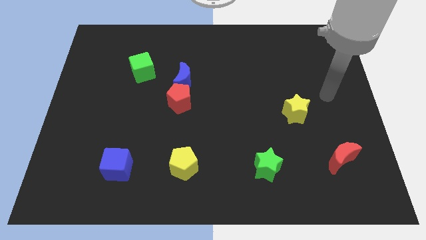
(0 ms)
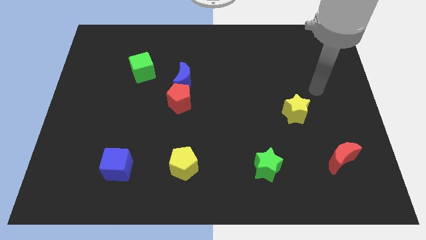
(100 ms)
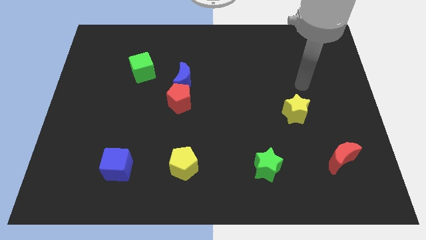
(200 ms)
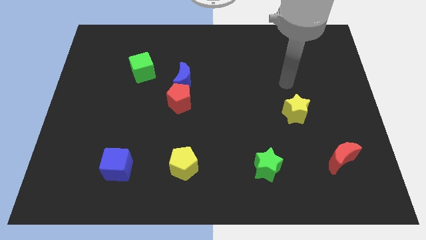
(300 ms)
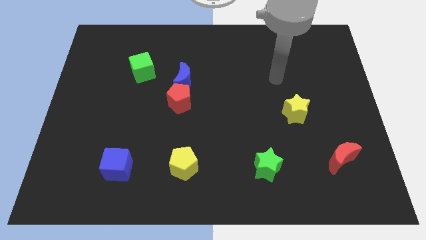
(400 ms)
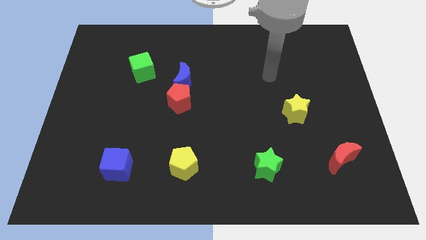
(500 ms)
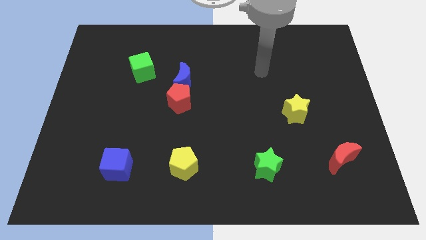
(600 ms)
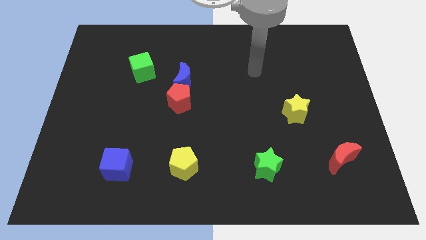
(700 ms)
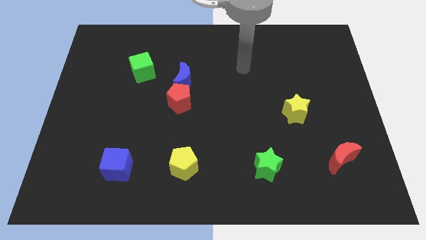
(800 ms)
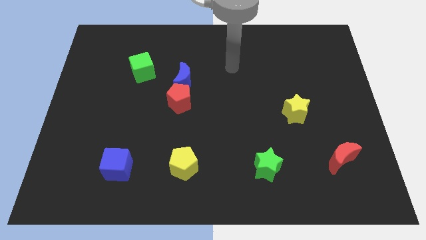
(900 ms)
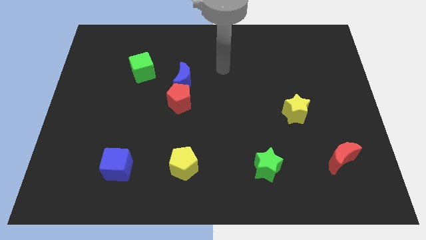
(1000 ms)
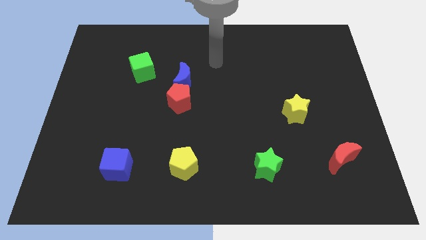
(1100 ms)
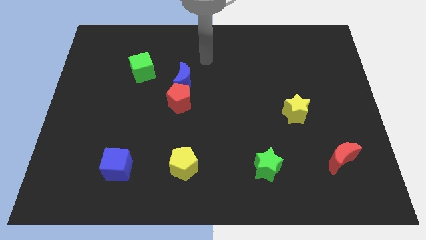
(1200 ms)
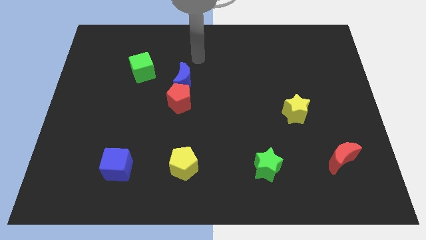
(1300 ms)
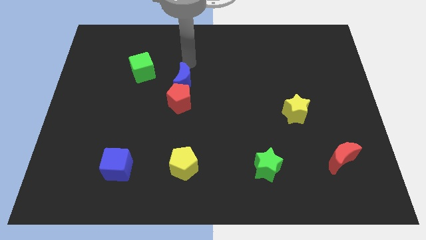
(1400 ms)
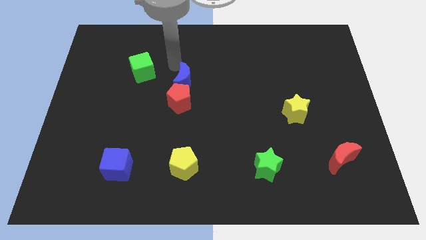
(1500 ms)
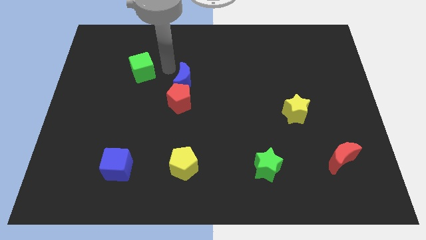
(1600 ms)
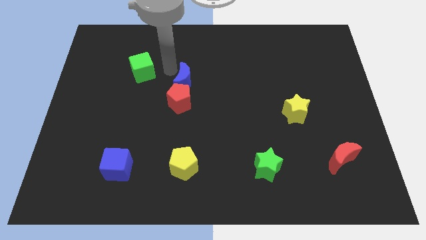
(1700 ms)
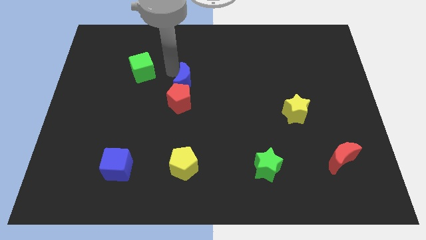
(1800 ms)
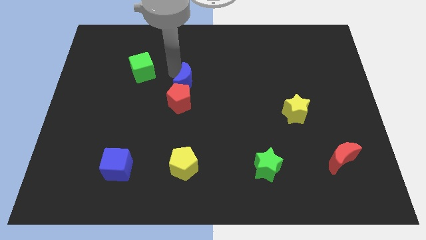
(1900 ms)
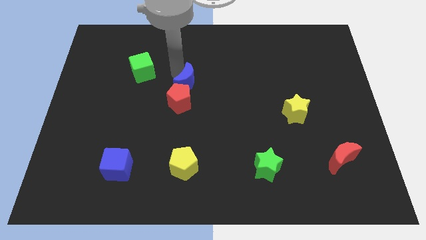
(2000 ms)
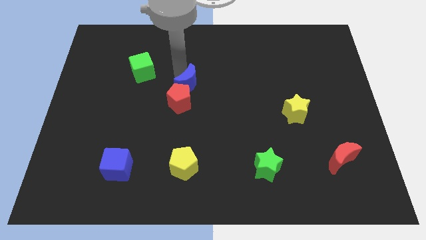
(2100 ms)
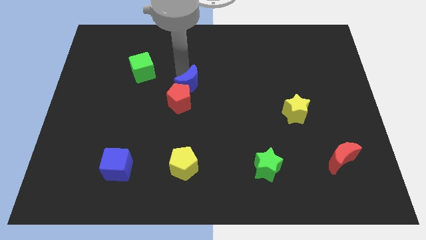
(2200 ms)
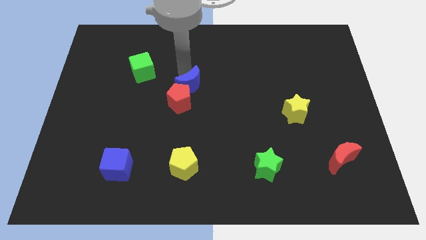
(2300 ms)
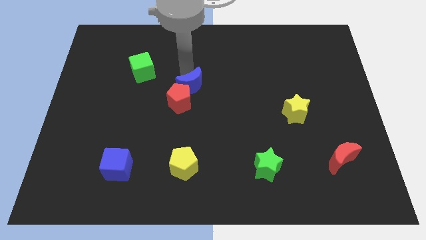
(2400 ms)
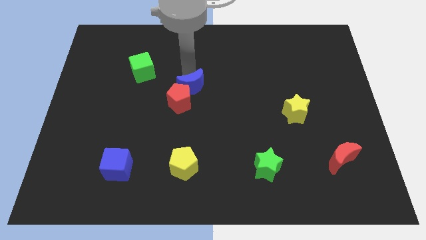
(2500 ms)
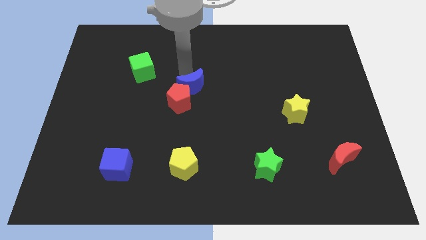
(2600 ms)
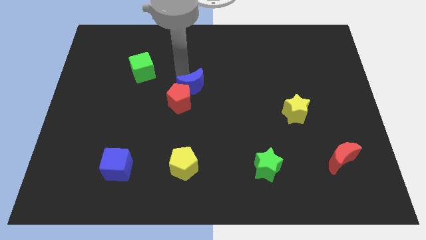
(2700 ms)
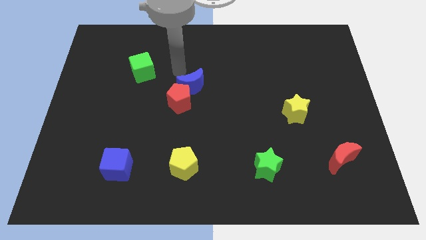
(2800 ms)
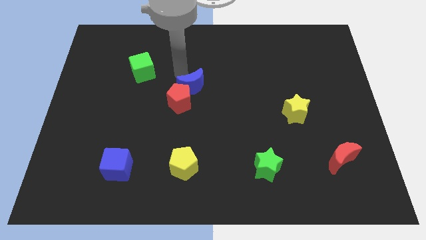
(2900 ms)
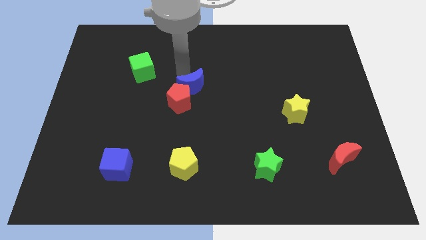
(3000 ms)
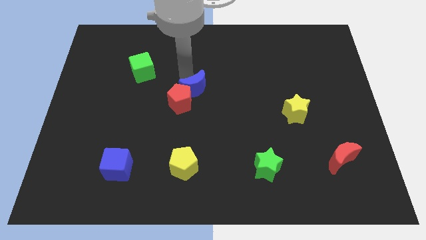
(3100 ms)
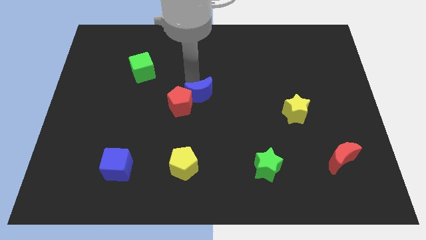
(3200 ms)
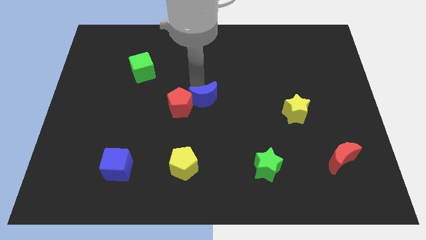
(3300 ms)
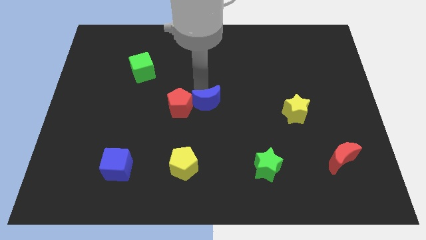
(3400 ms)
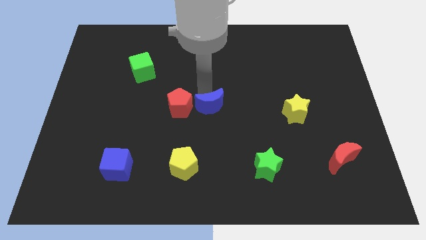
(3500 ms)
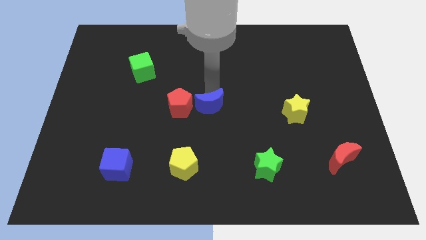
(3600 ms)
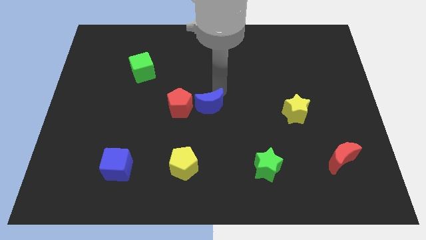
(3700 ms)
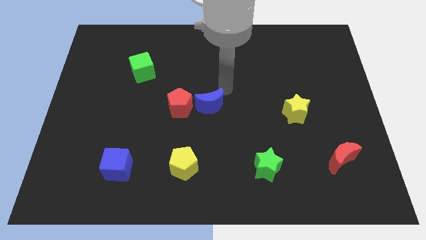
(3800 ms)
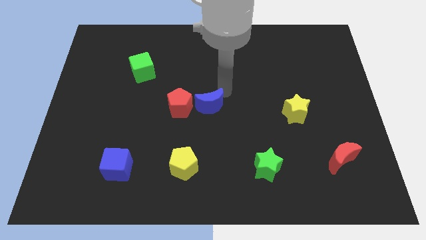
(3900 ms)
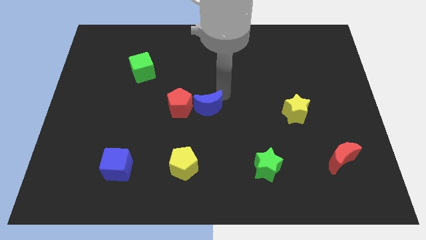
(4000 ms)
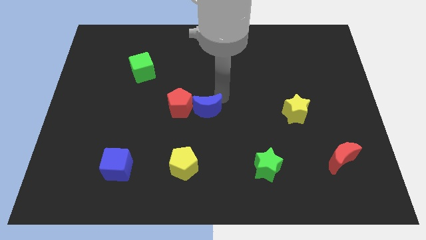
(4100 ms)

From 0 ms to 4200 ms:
push the blue moon a bit downwards

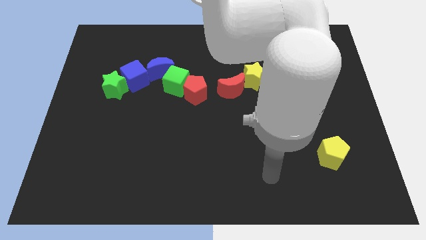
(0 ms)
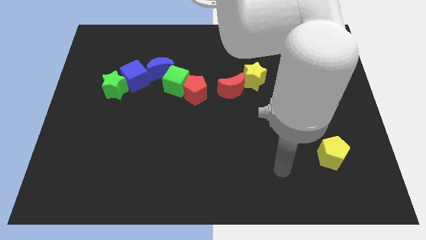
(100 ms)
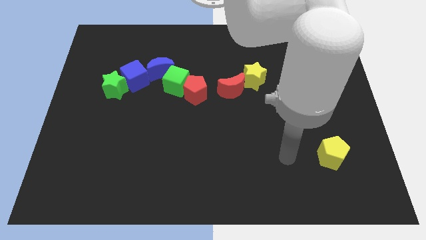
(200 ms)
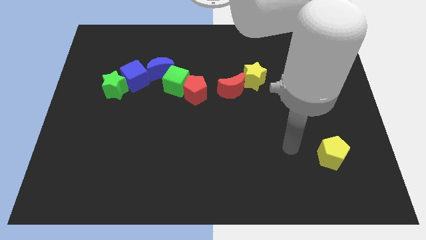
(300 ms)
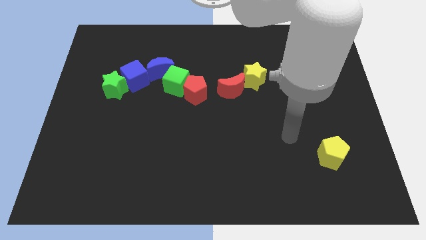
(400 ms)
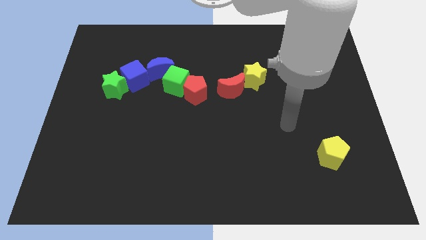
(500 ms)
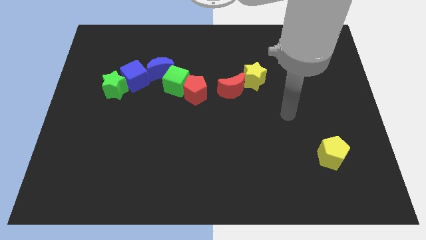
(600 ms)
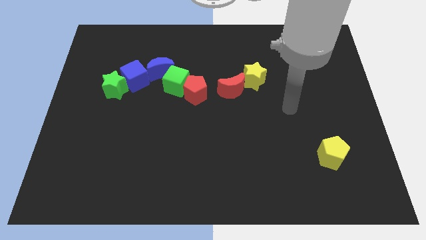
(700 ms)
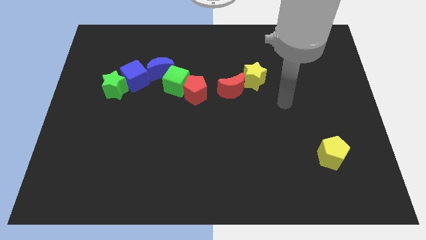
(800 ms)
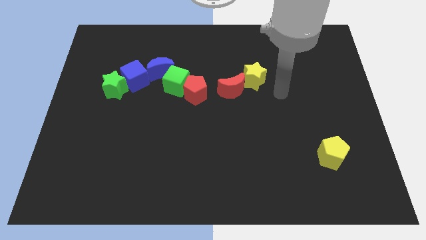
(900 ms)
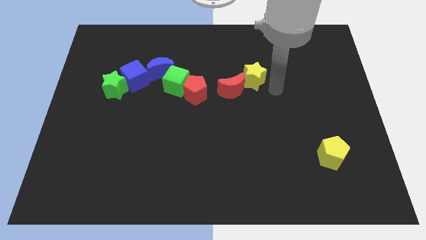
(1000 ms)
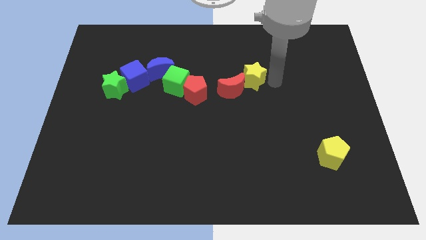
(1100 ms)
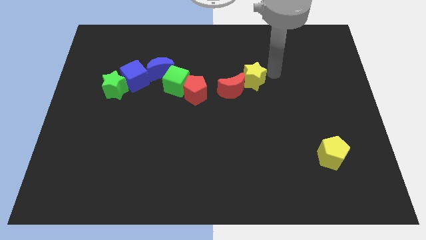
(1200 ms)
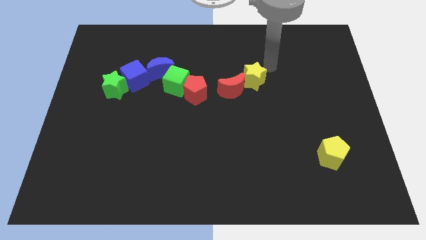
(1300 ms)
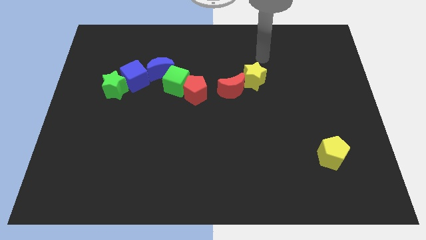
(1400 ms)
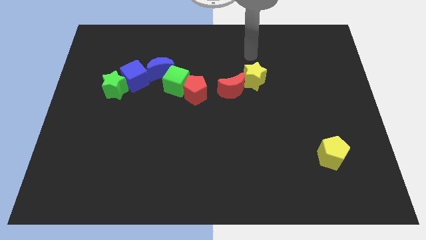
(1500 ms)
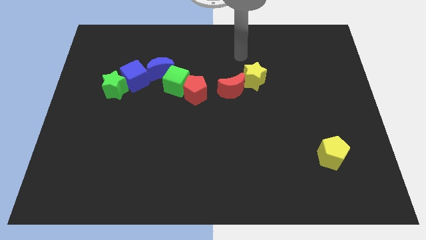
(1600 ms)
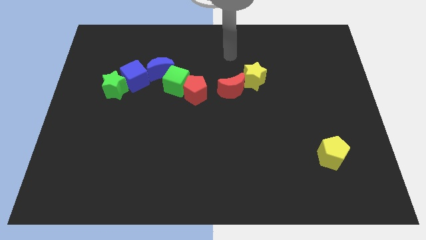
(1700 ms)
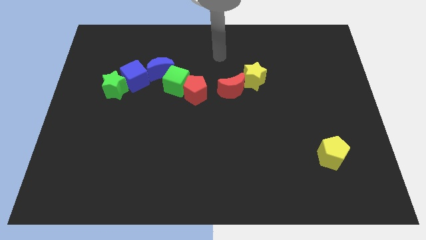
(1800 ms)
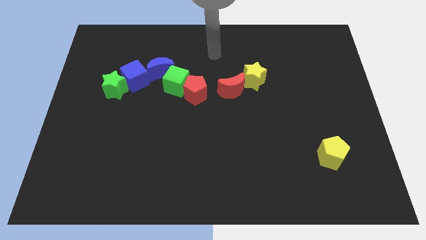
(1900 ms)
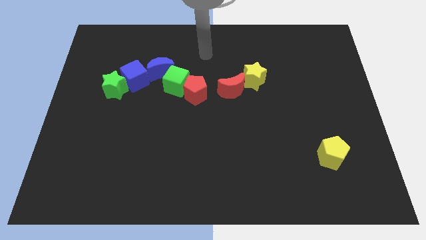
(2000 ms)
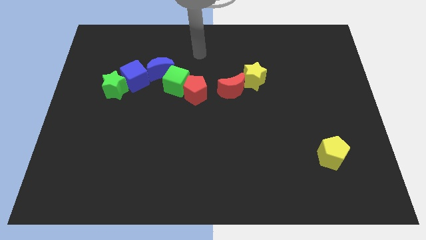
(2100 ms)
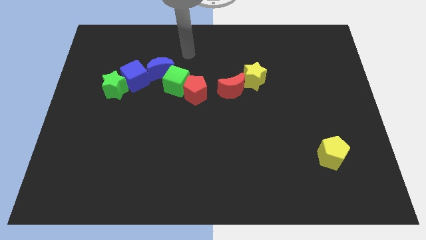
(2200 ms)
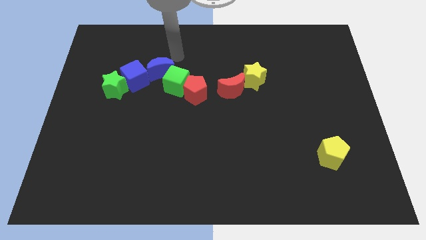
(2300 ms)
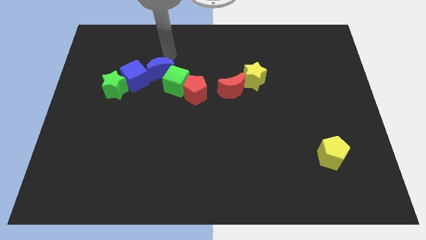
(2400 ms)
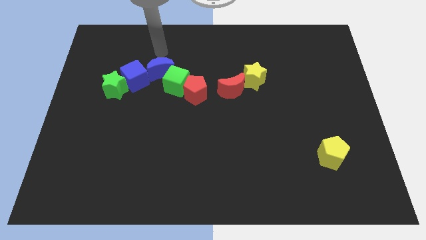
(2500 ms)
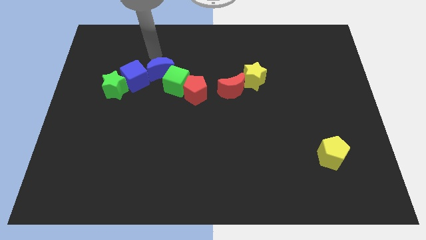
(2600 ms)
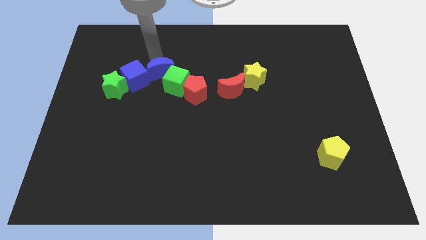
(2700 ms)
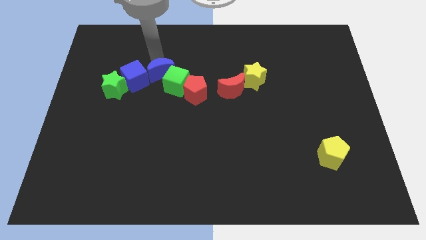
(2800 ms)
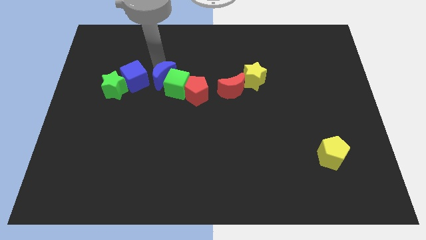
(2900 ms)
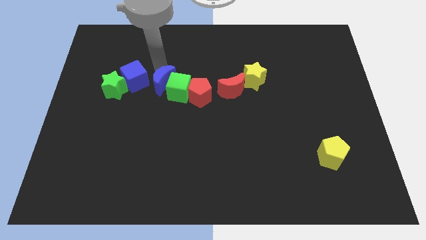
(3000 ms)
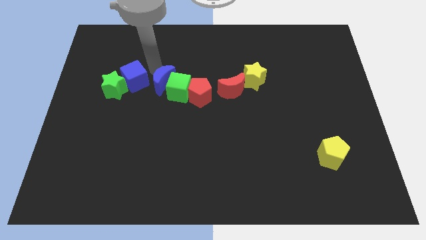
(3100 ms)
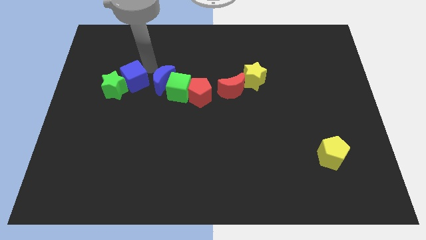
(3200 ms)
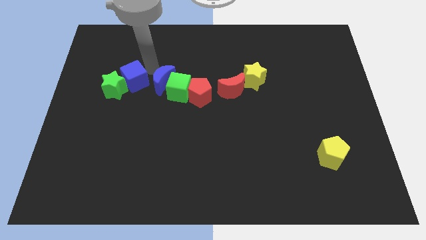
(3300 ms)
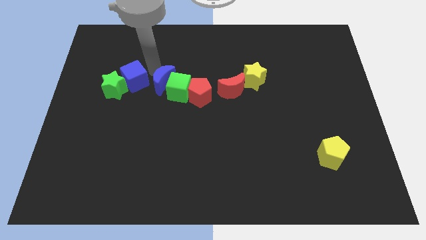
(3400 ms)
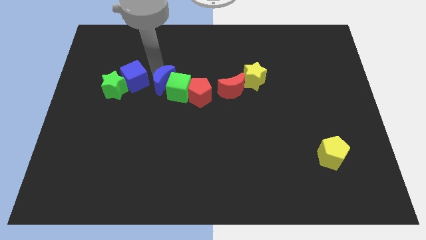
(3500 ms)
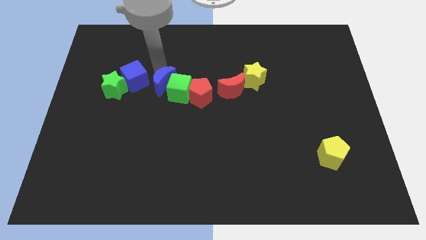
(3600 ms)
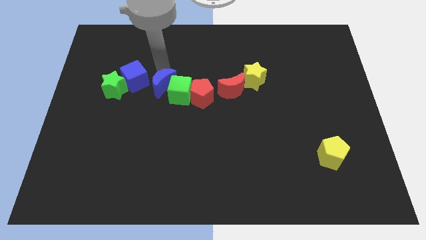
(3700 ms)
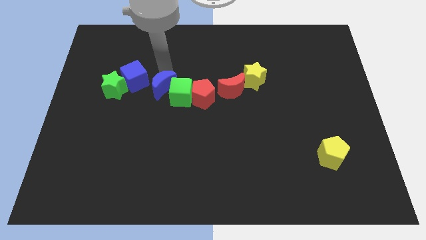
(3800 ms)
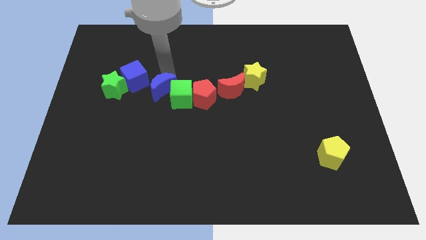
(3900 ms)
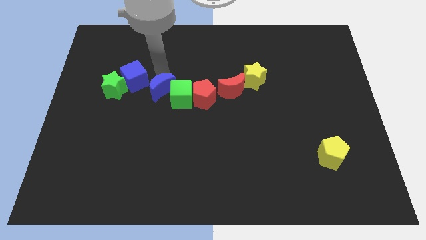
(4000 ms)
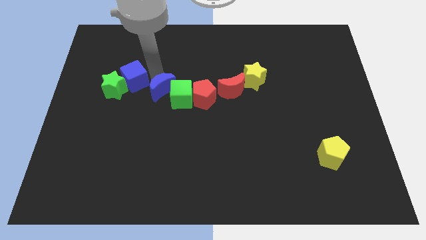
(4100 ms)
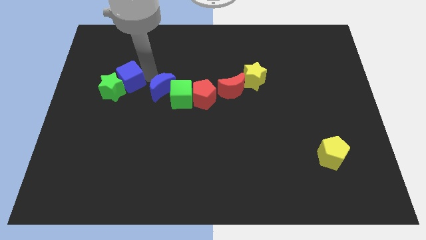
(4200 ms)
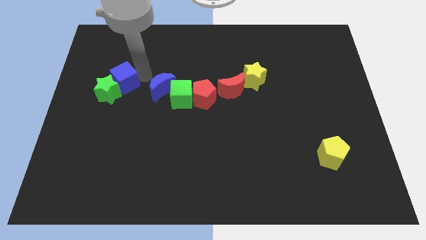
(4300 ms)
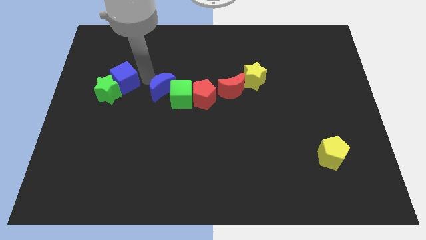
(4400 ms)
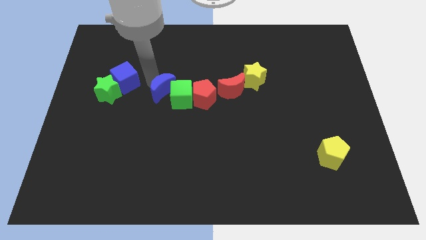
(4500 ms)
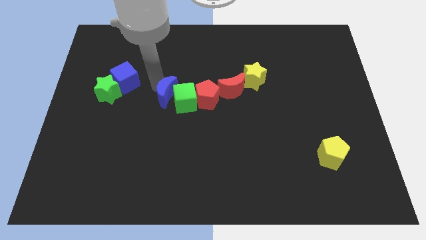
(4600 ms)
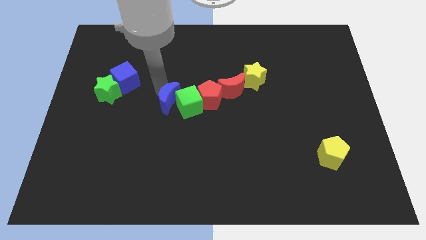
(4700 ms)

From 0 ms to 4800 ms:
slightly move the blue moon downwards and then to the right
